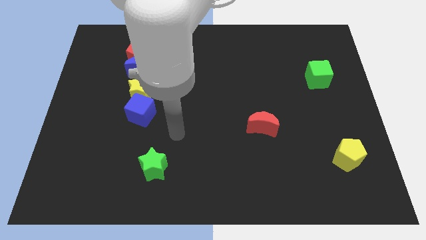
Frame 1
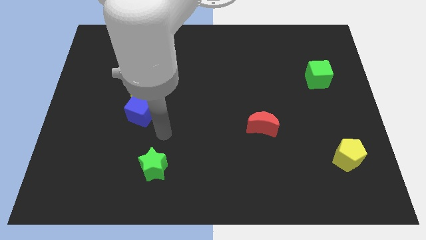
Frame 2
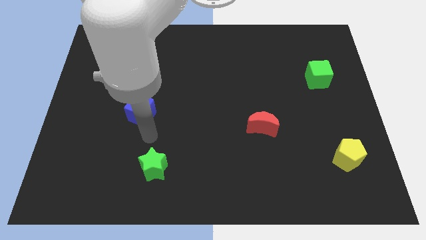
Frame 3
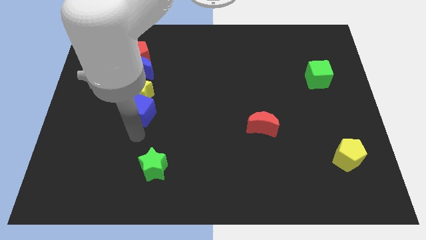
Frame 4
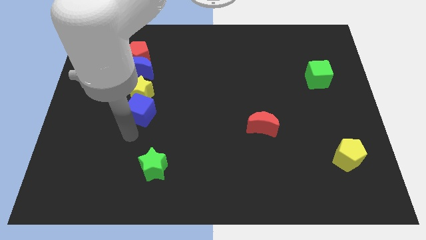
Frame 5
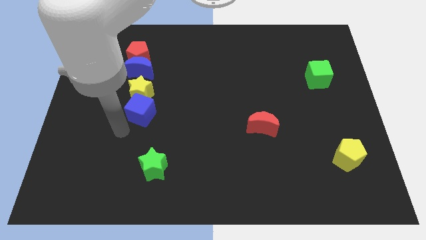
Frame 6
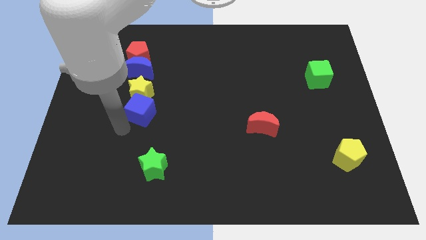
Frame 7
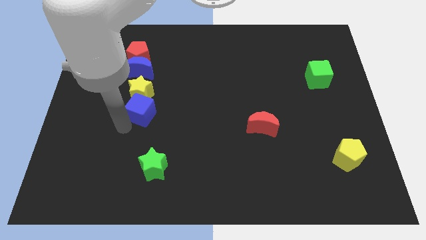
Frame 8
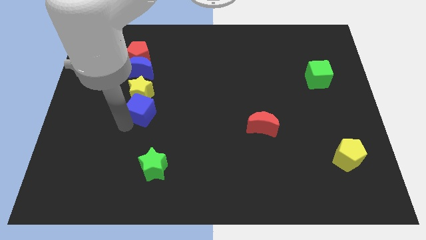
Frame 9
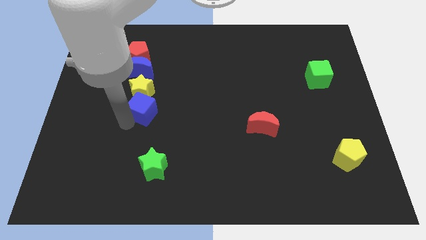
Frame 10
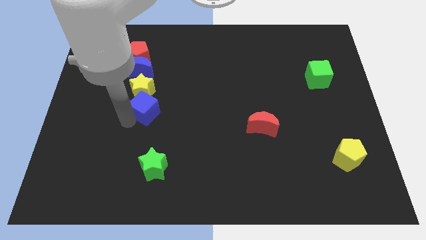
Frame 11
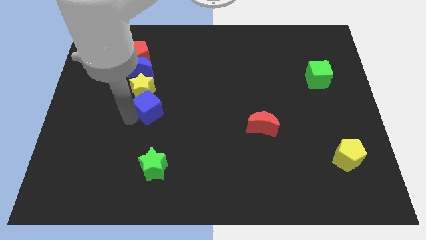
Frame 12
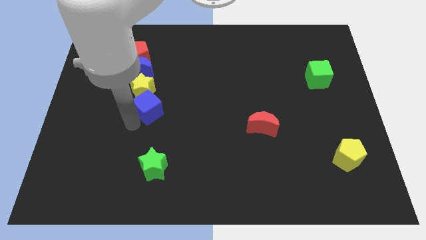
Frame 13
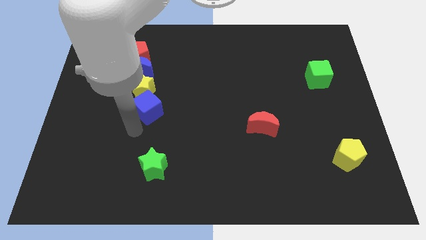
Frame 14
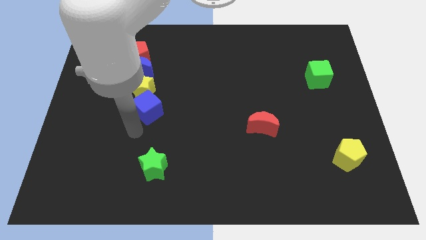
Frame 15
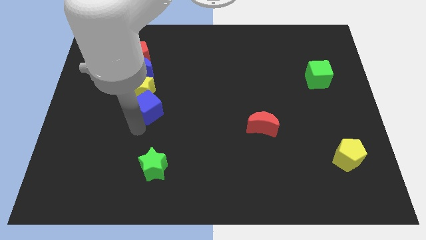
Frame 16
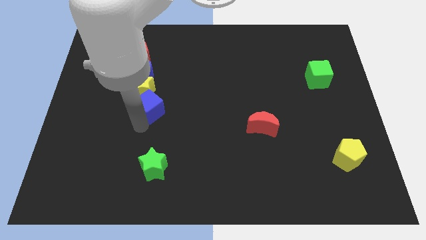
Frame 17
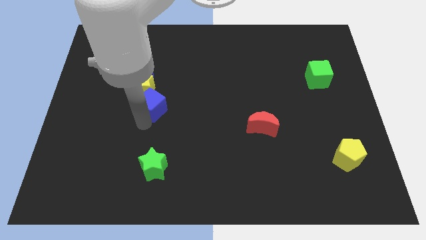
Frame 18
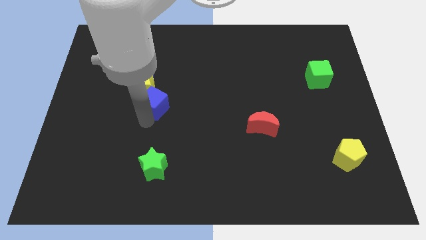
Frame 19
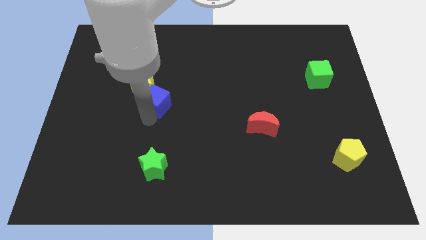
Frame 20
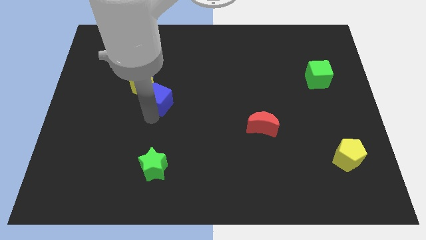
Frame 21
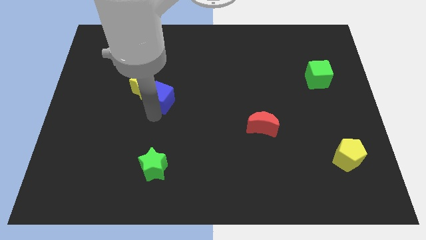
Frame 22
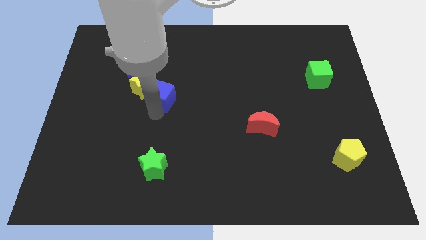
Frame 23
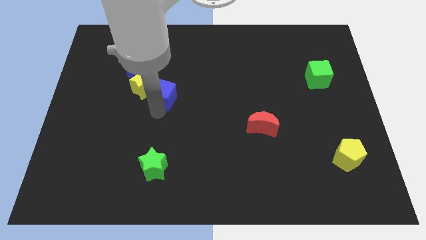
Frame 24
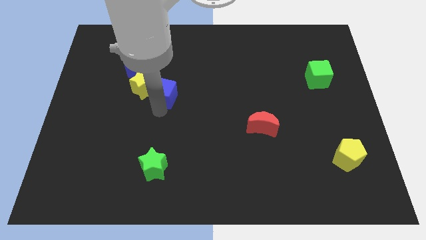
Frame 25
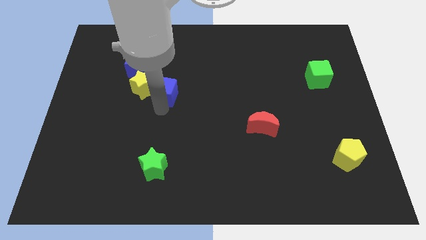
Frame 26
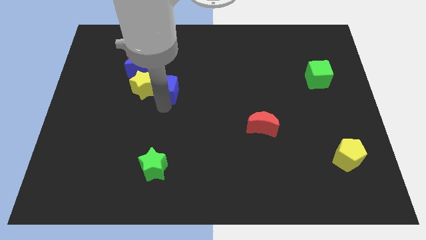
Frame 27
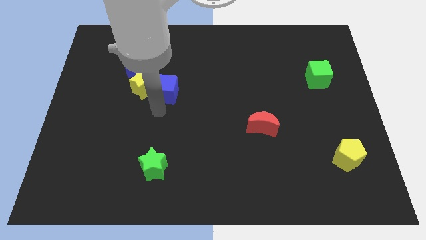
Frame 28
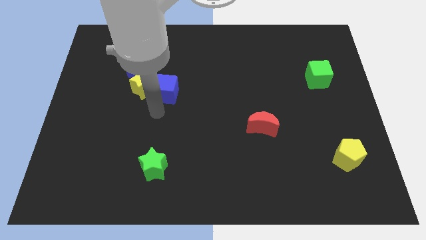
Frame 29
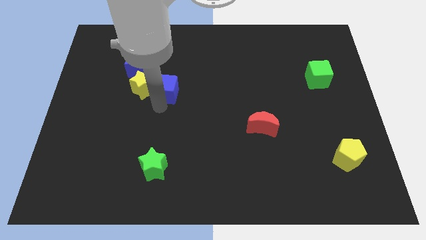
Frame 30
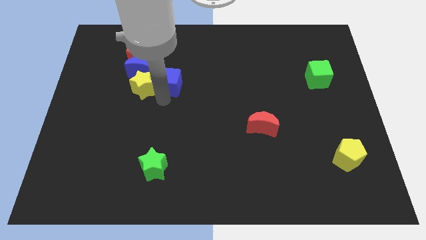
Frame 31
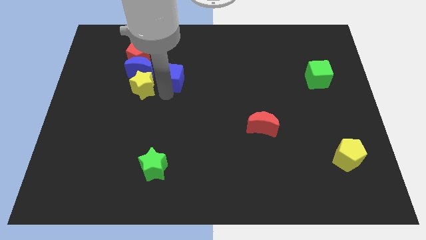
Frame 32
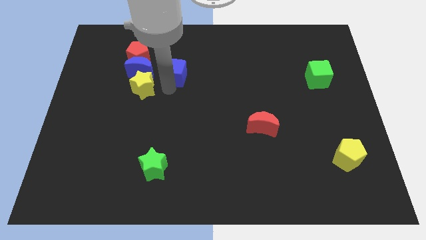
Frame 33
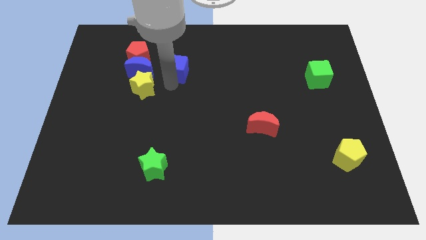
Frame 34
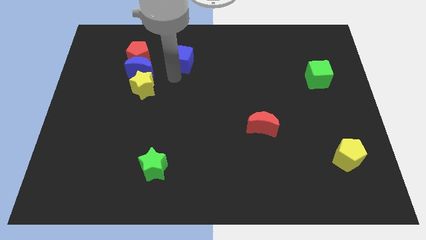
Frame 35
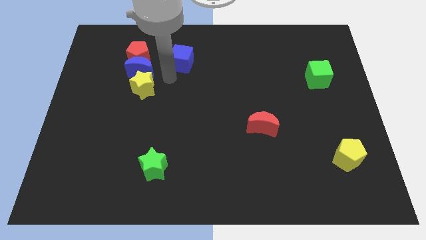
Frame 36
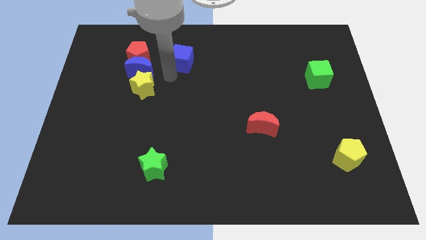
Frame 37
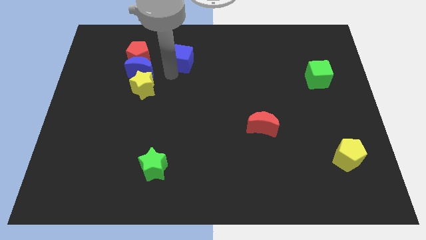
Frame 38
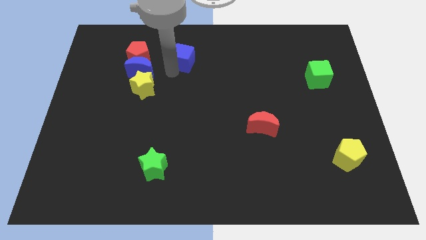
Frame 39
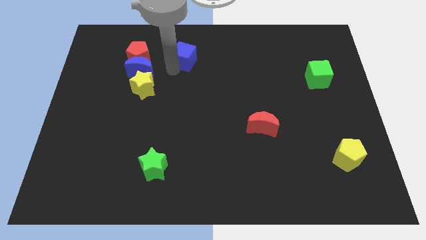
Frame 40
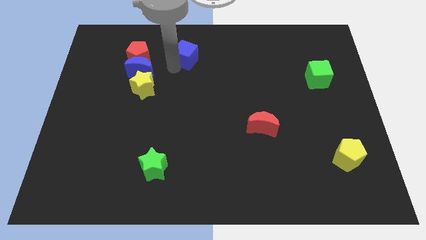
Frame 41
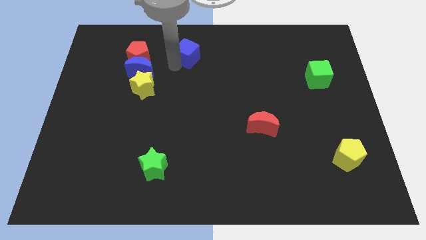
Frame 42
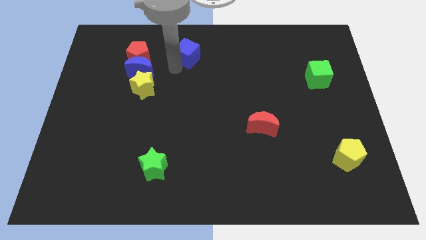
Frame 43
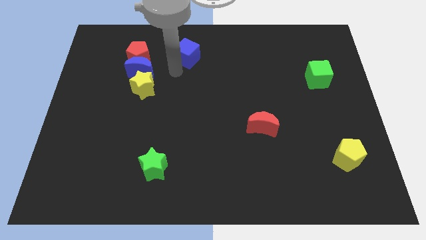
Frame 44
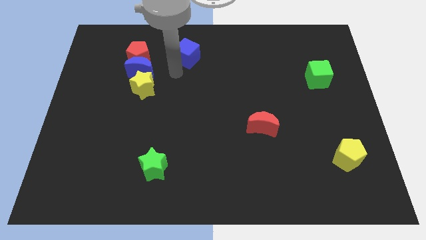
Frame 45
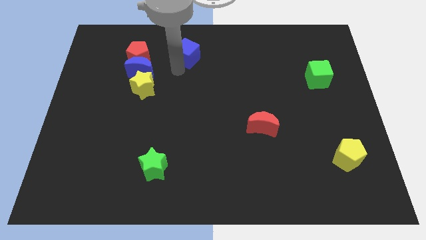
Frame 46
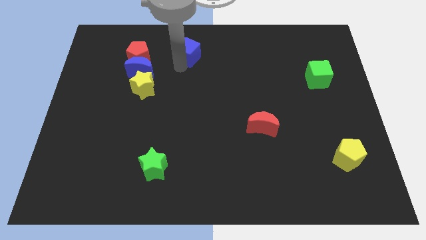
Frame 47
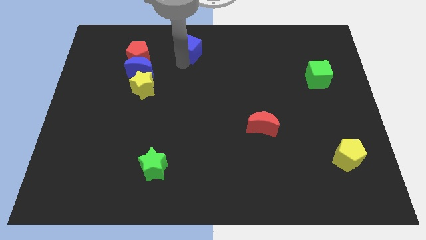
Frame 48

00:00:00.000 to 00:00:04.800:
put the blue cube to the towards your base

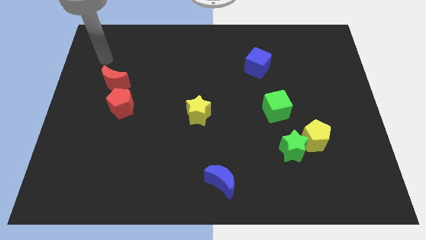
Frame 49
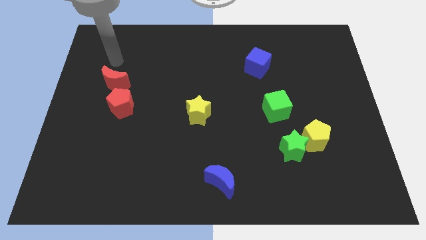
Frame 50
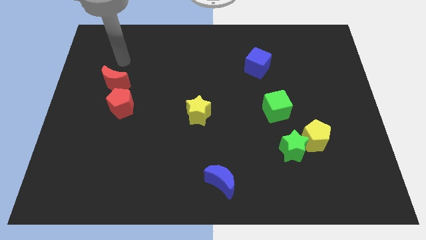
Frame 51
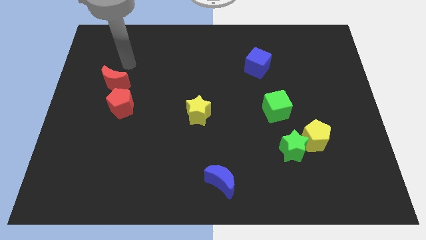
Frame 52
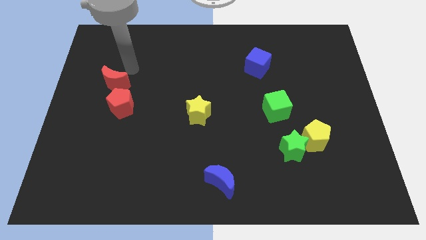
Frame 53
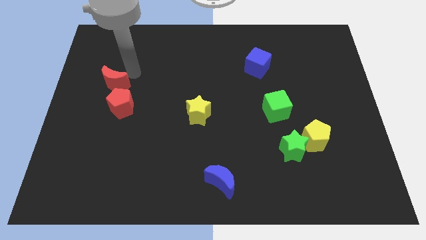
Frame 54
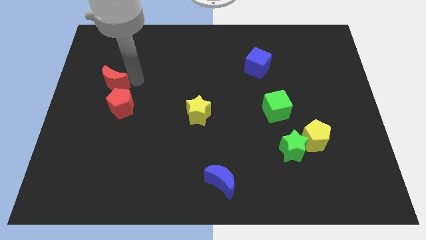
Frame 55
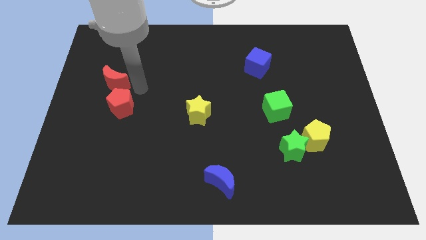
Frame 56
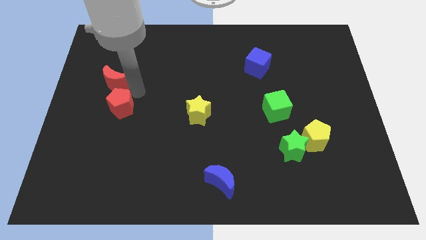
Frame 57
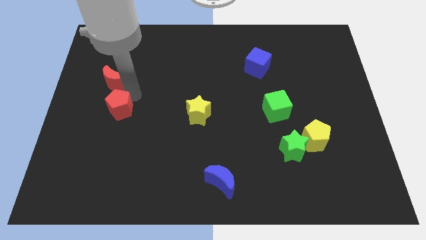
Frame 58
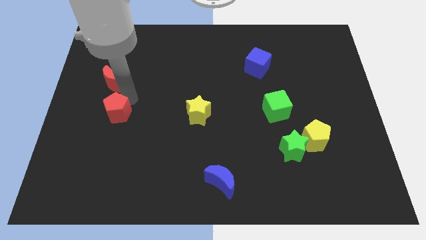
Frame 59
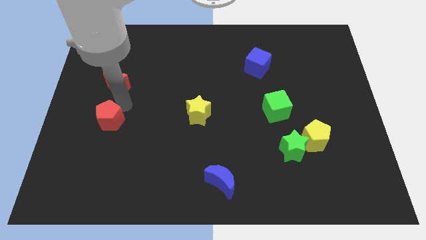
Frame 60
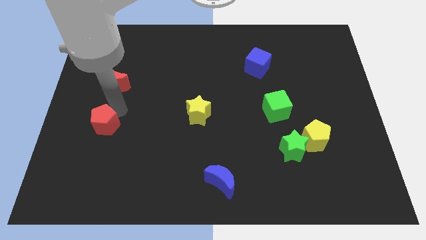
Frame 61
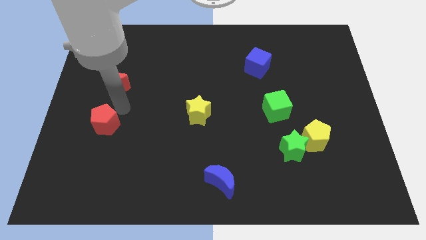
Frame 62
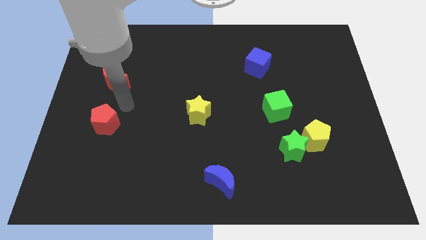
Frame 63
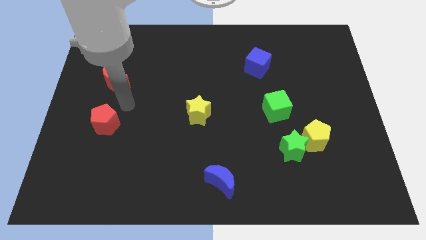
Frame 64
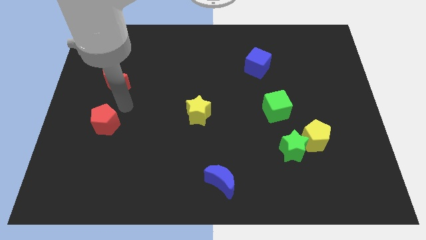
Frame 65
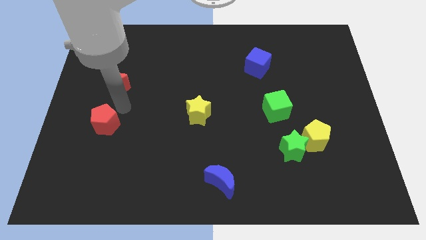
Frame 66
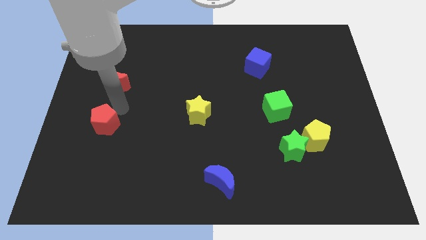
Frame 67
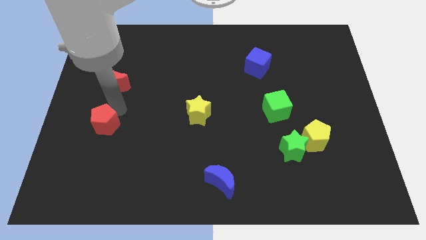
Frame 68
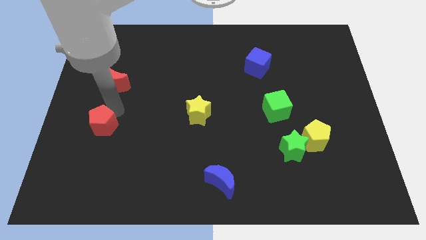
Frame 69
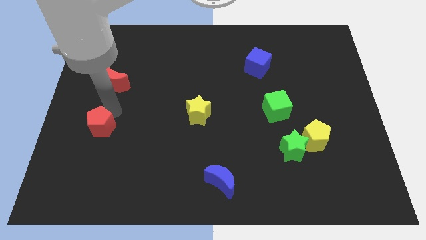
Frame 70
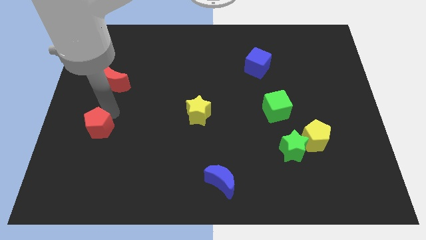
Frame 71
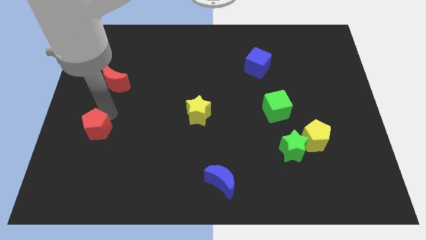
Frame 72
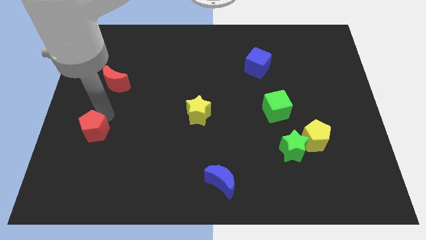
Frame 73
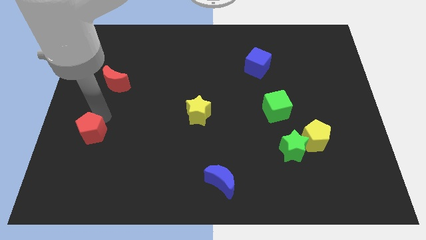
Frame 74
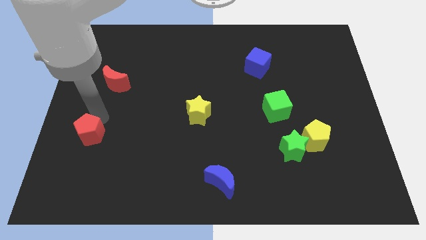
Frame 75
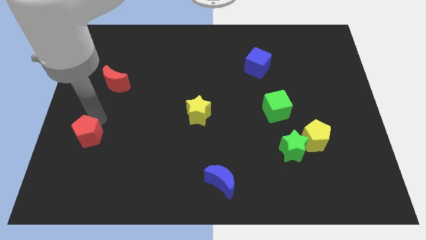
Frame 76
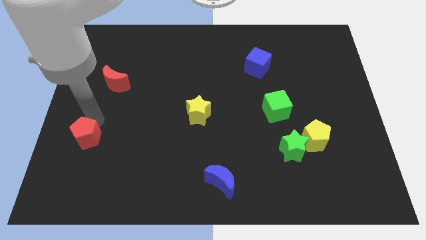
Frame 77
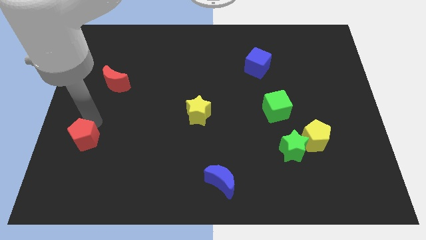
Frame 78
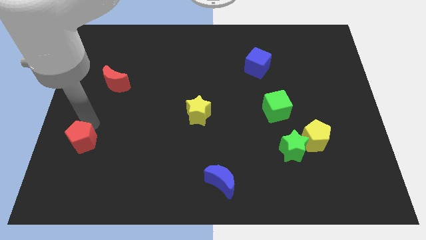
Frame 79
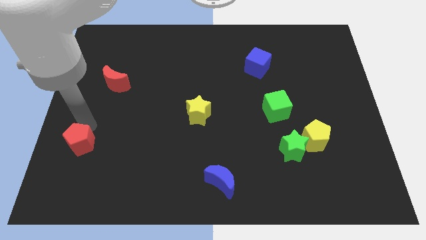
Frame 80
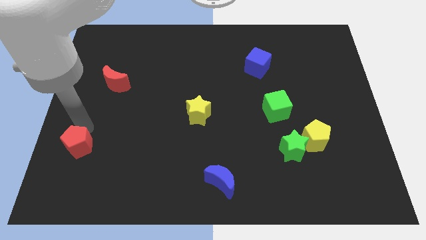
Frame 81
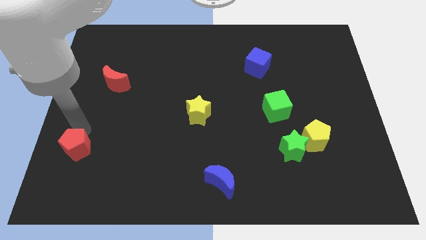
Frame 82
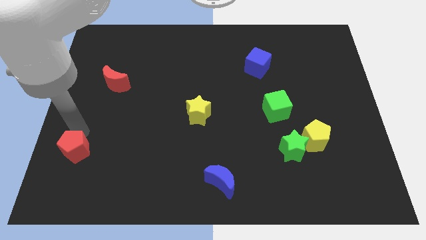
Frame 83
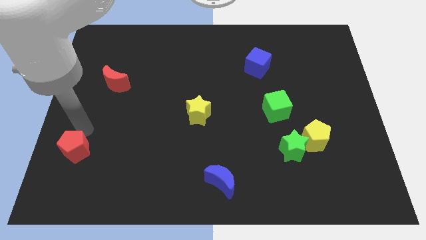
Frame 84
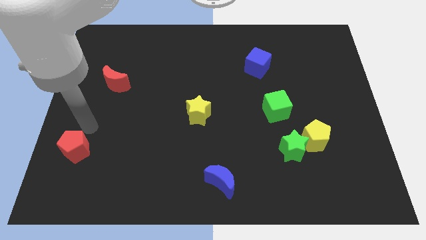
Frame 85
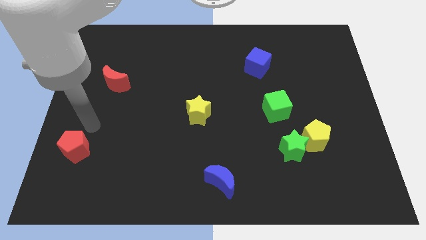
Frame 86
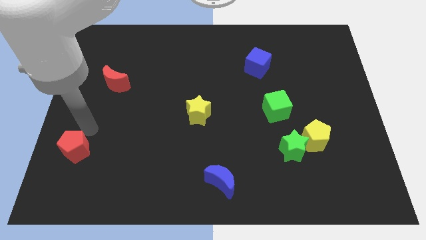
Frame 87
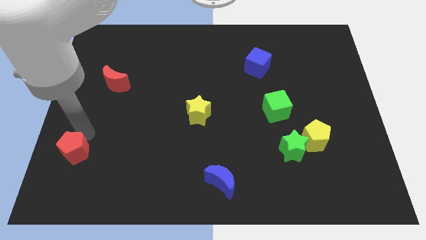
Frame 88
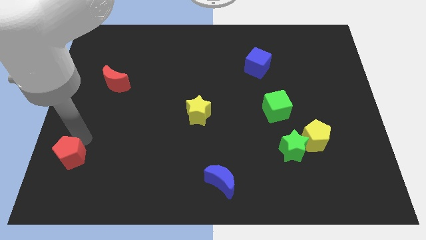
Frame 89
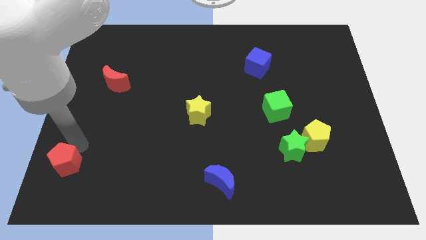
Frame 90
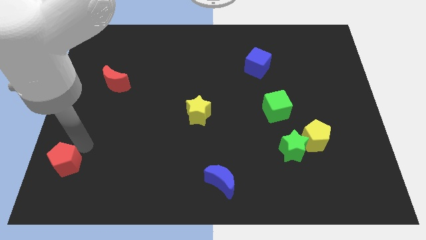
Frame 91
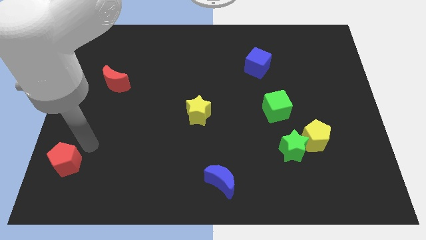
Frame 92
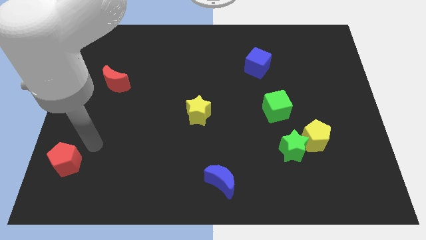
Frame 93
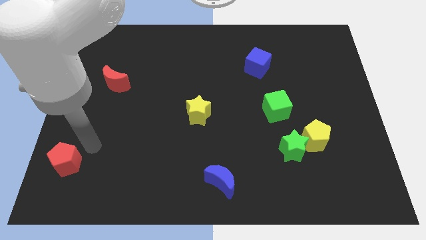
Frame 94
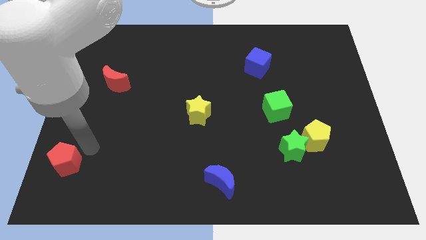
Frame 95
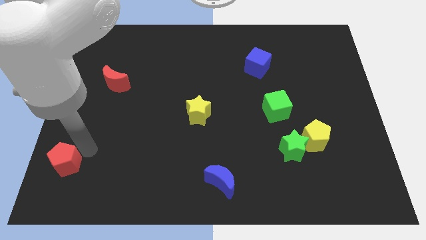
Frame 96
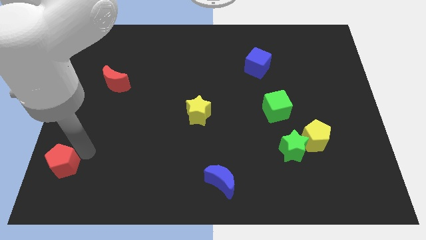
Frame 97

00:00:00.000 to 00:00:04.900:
put the red pentagon to the bottom left
